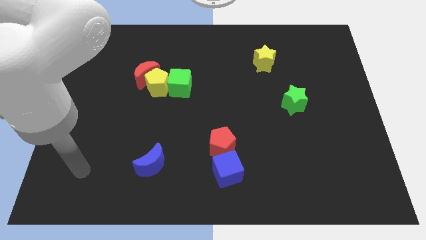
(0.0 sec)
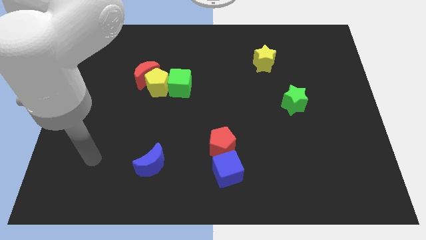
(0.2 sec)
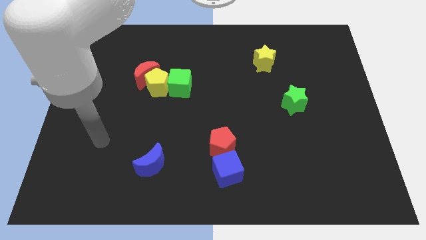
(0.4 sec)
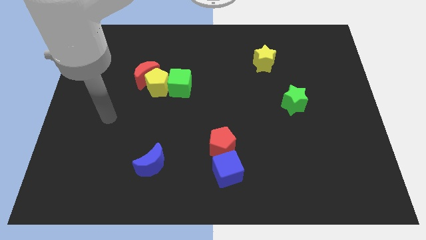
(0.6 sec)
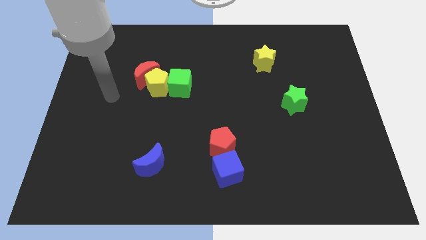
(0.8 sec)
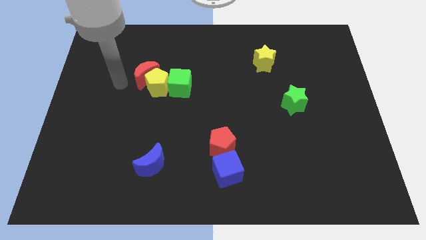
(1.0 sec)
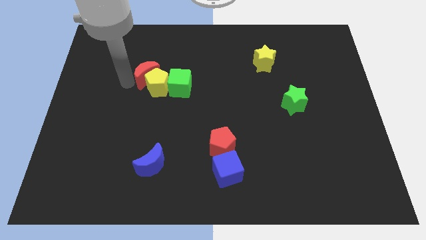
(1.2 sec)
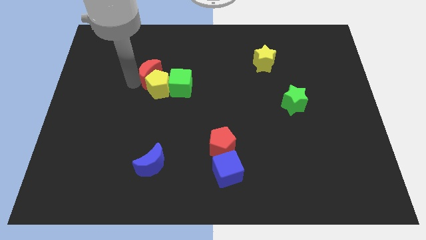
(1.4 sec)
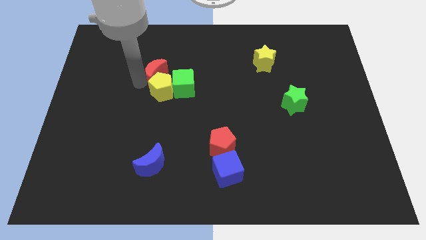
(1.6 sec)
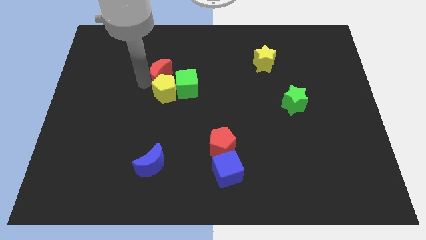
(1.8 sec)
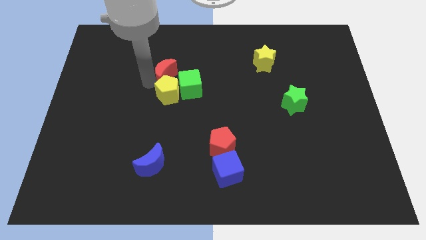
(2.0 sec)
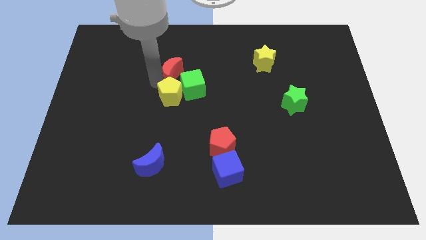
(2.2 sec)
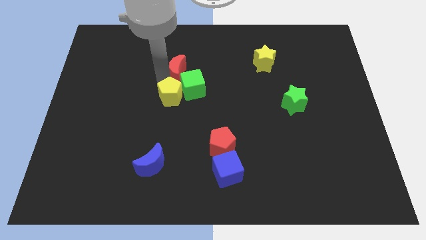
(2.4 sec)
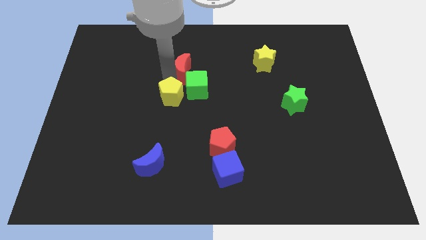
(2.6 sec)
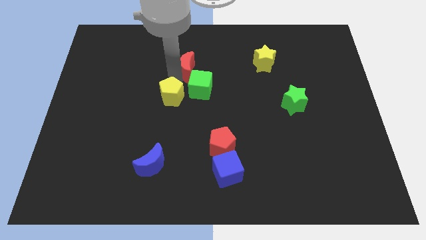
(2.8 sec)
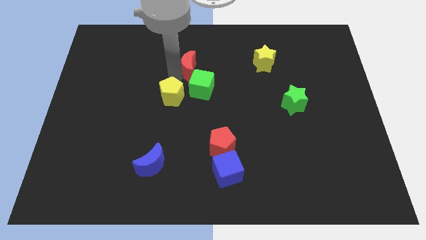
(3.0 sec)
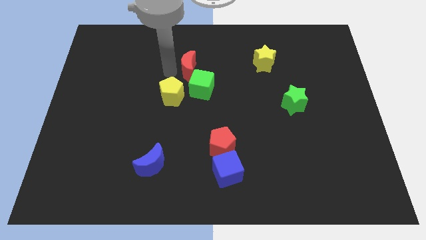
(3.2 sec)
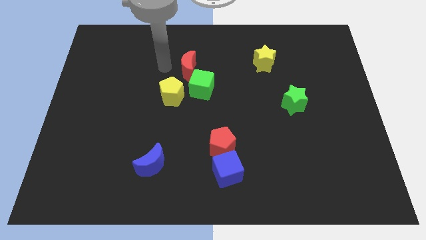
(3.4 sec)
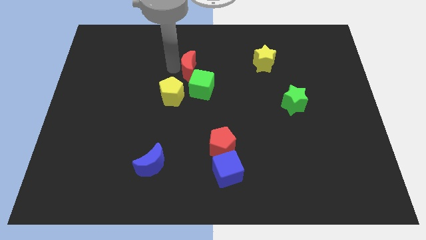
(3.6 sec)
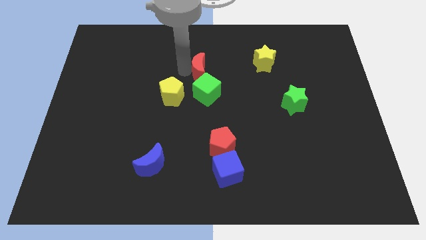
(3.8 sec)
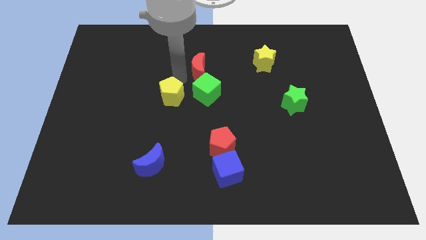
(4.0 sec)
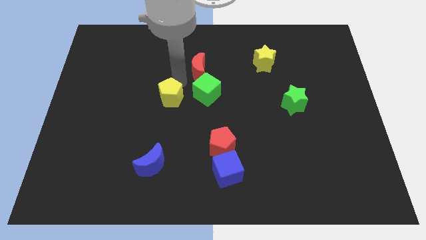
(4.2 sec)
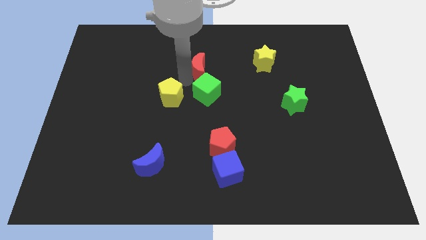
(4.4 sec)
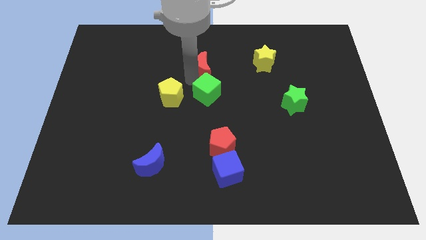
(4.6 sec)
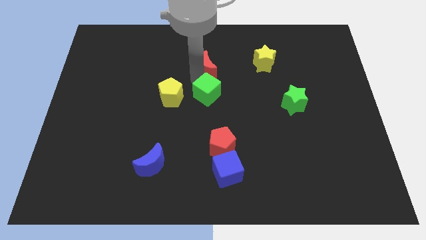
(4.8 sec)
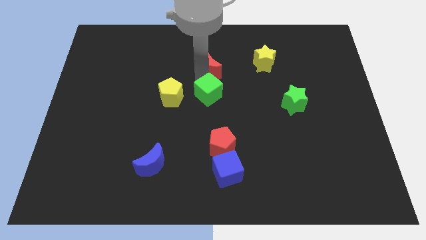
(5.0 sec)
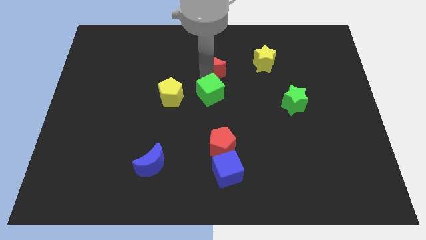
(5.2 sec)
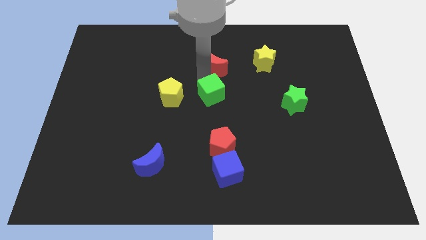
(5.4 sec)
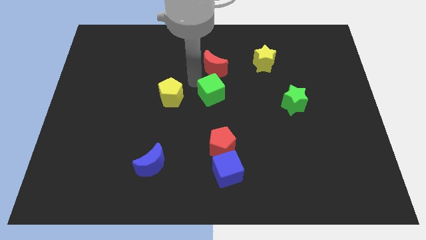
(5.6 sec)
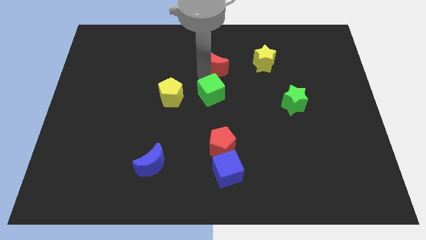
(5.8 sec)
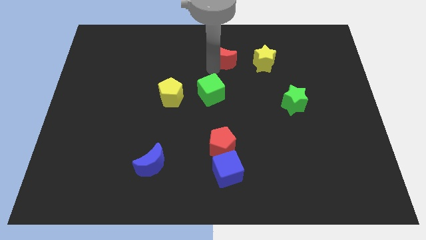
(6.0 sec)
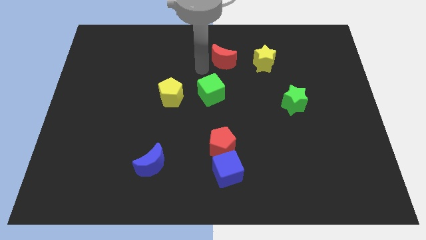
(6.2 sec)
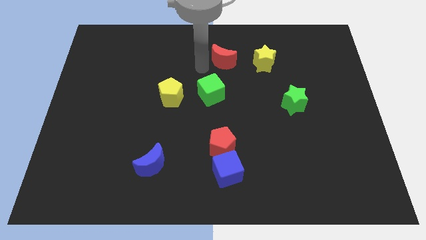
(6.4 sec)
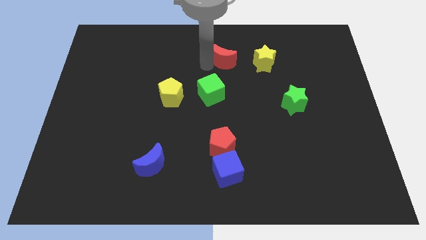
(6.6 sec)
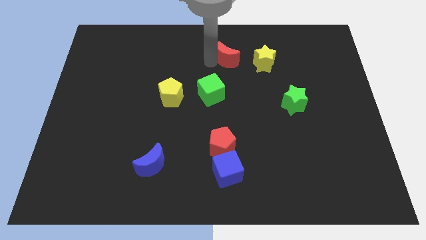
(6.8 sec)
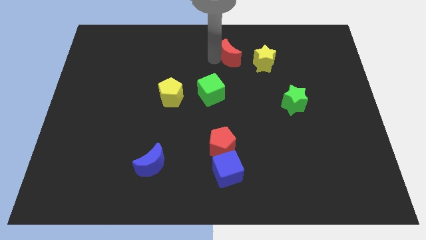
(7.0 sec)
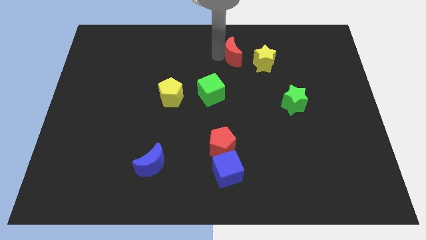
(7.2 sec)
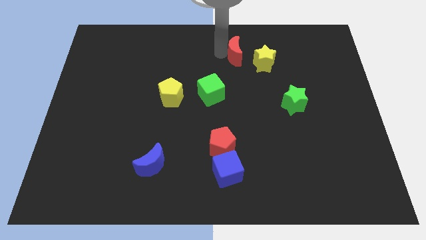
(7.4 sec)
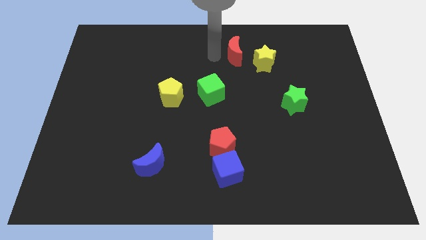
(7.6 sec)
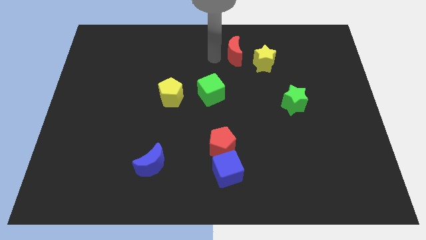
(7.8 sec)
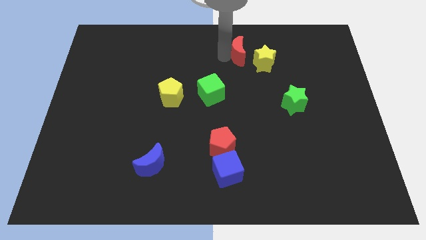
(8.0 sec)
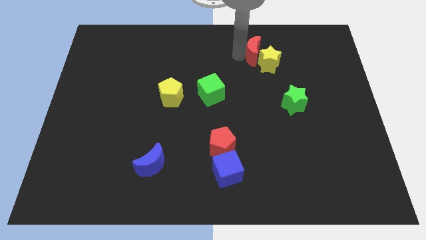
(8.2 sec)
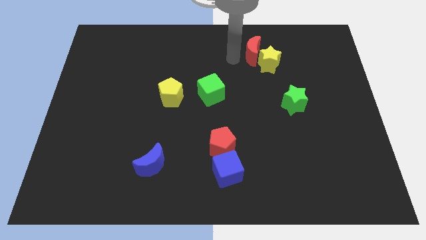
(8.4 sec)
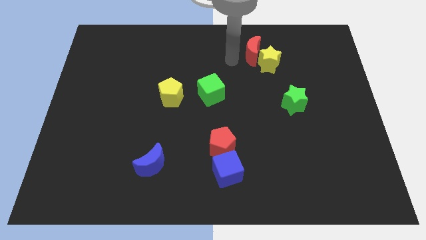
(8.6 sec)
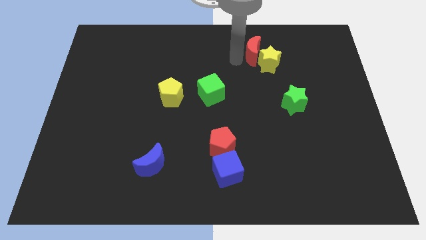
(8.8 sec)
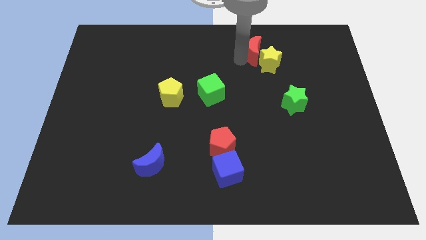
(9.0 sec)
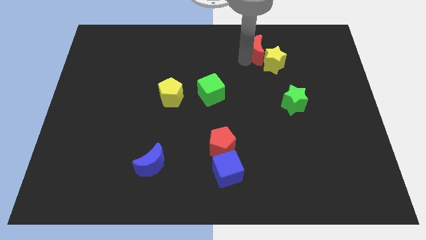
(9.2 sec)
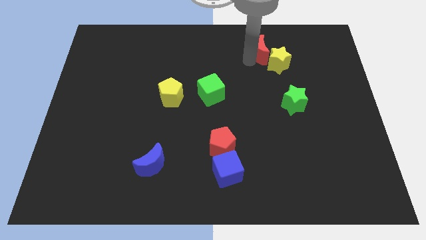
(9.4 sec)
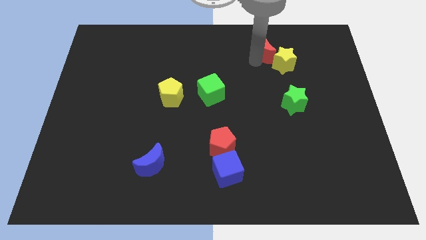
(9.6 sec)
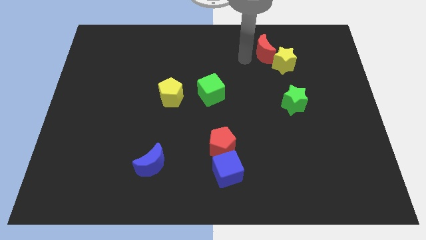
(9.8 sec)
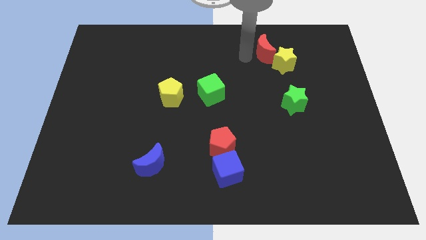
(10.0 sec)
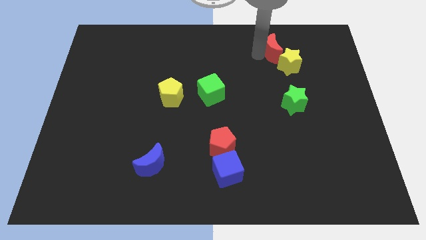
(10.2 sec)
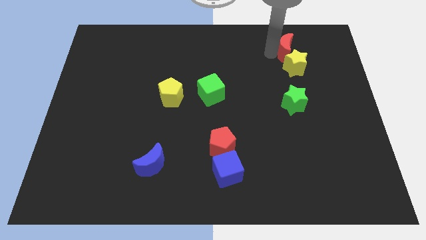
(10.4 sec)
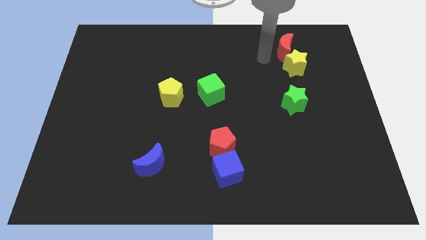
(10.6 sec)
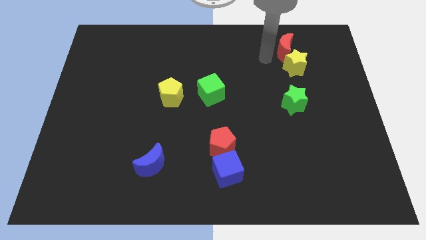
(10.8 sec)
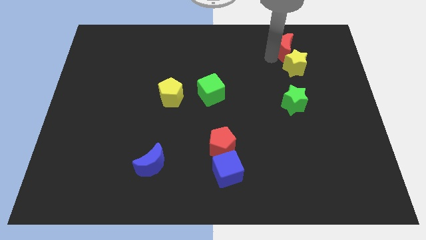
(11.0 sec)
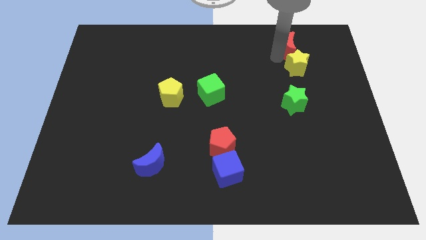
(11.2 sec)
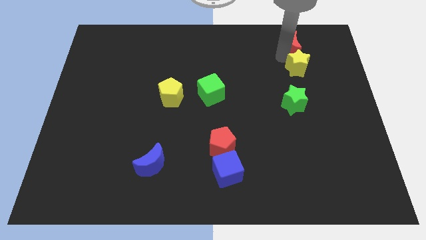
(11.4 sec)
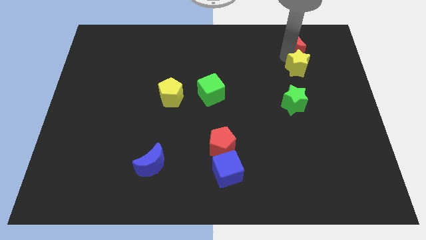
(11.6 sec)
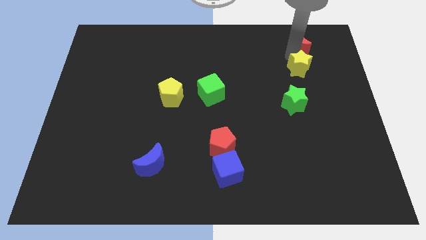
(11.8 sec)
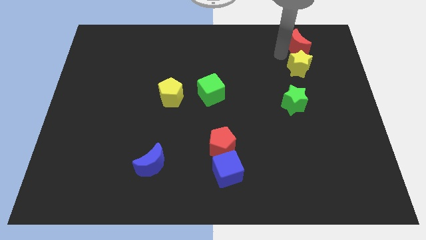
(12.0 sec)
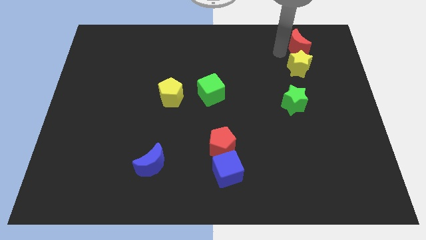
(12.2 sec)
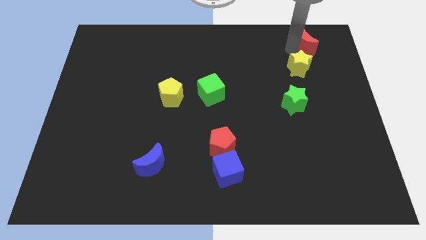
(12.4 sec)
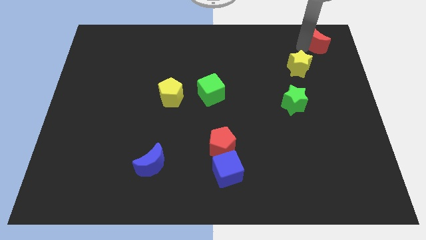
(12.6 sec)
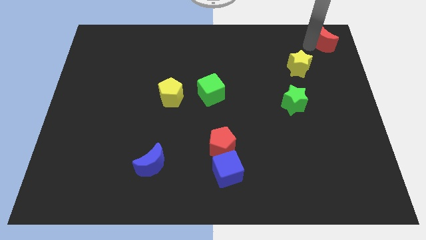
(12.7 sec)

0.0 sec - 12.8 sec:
move the red moon to the top right of the board
